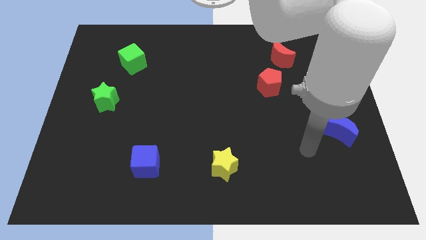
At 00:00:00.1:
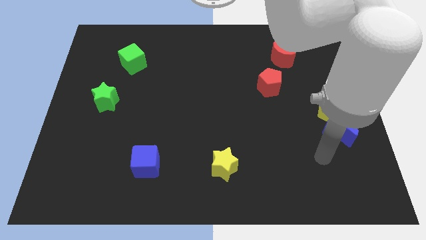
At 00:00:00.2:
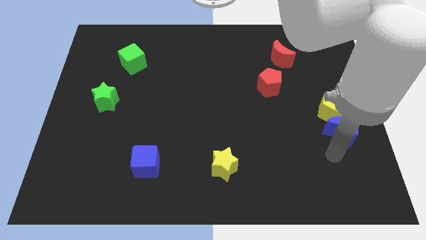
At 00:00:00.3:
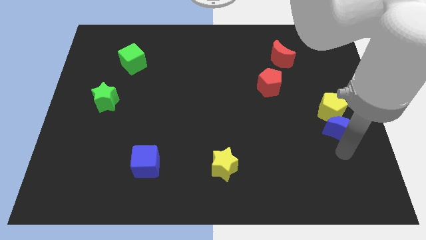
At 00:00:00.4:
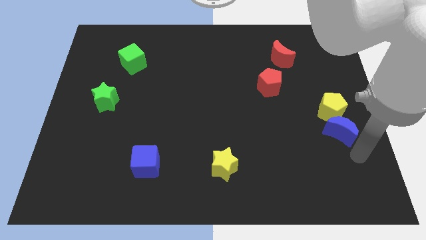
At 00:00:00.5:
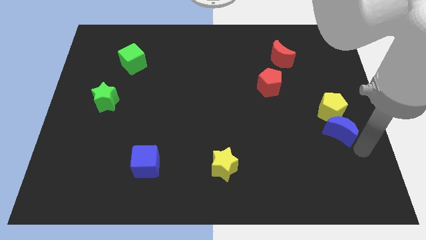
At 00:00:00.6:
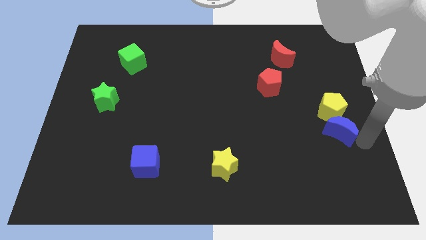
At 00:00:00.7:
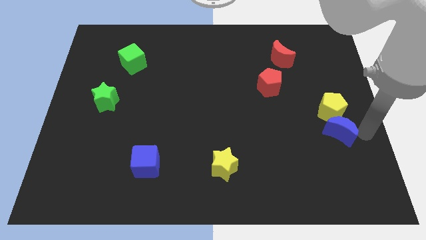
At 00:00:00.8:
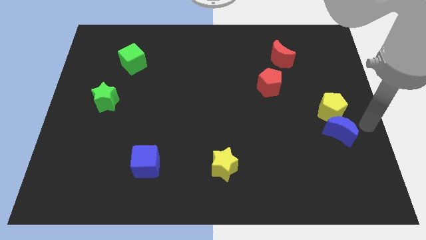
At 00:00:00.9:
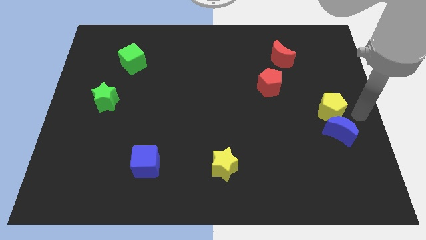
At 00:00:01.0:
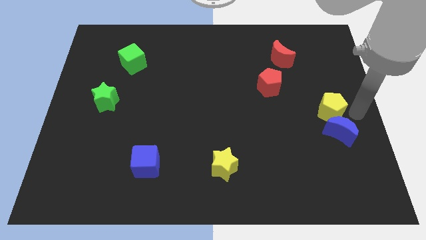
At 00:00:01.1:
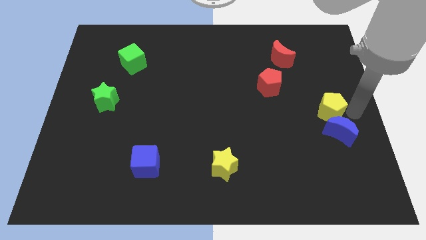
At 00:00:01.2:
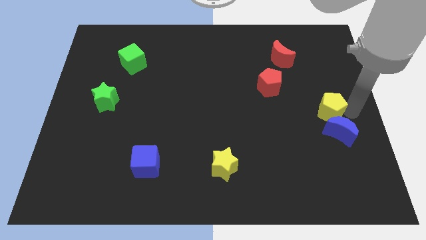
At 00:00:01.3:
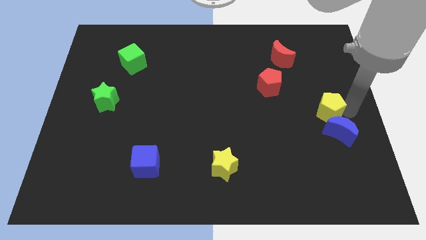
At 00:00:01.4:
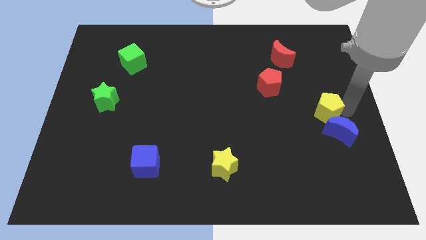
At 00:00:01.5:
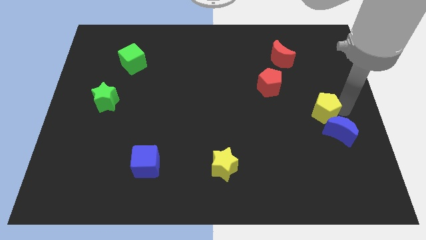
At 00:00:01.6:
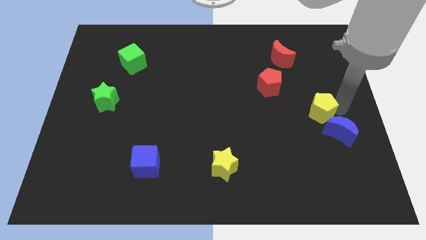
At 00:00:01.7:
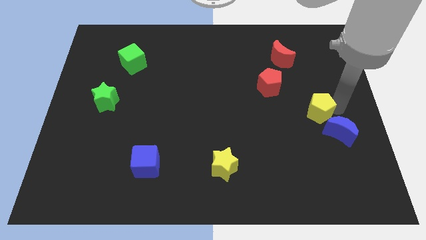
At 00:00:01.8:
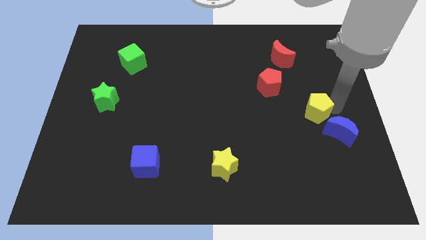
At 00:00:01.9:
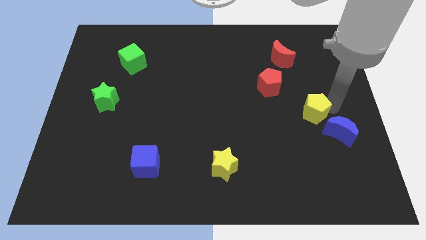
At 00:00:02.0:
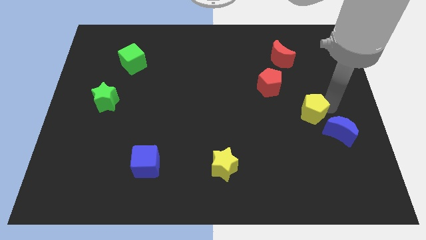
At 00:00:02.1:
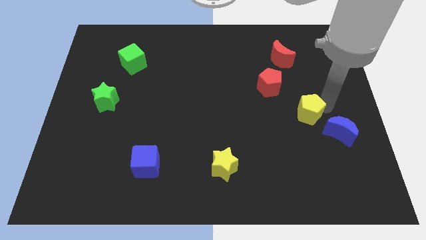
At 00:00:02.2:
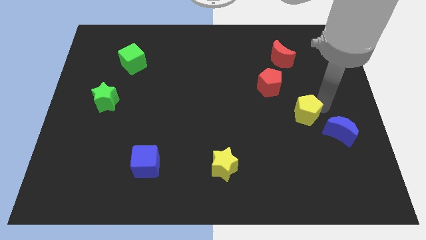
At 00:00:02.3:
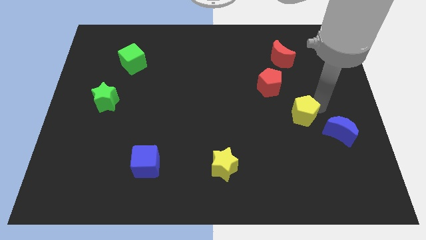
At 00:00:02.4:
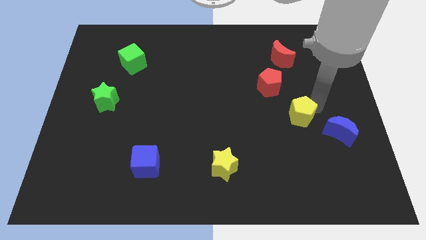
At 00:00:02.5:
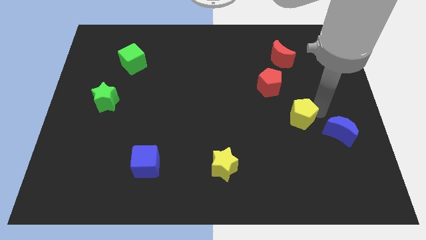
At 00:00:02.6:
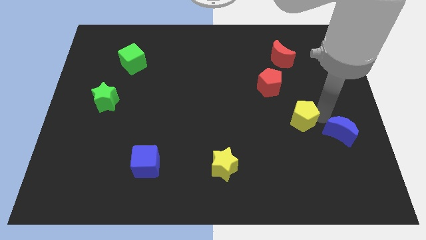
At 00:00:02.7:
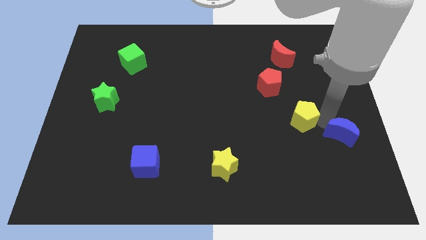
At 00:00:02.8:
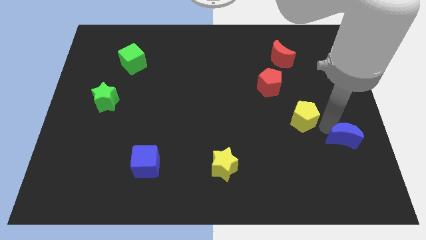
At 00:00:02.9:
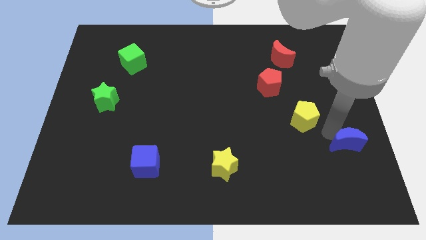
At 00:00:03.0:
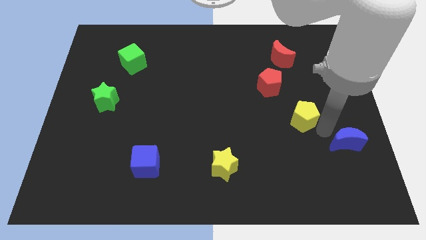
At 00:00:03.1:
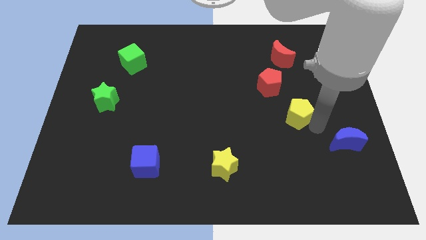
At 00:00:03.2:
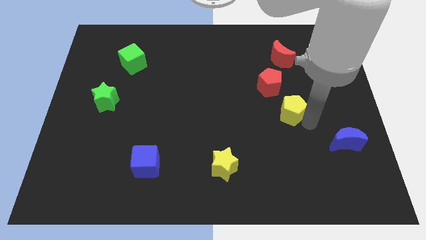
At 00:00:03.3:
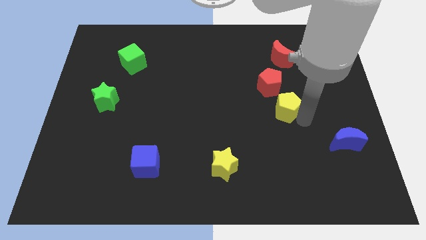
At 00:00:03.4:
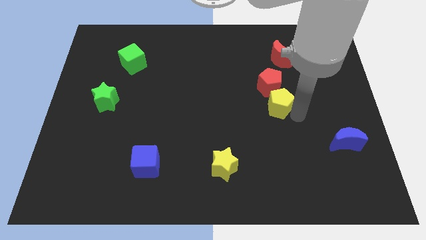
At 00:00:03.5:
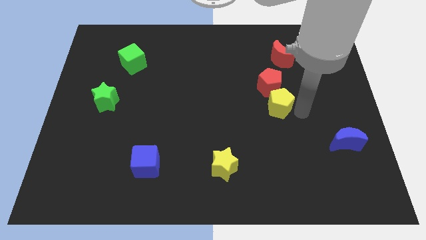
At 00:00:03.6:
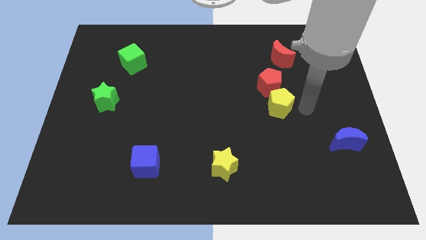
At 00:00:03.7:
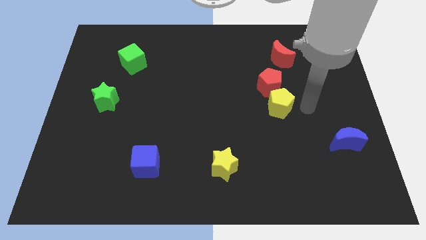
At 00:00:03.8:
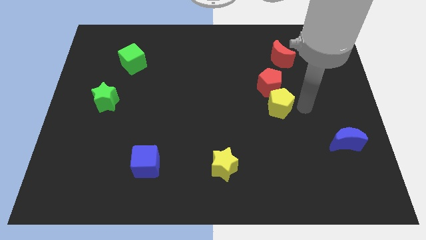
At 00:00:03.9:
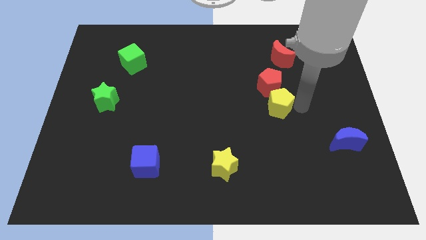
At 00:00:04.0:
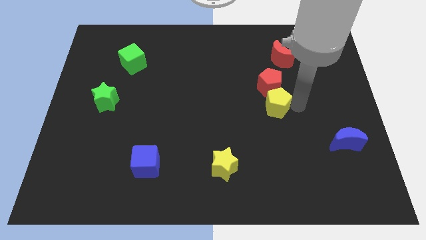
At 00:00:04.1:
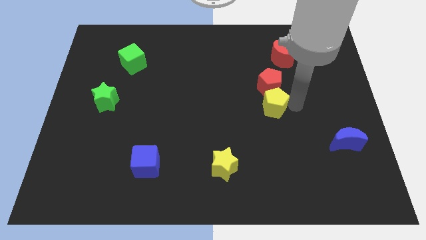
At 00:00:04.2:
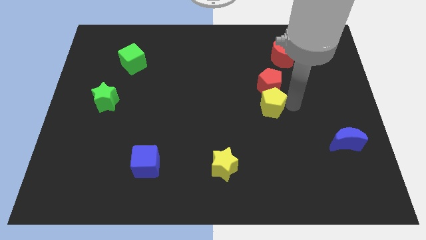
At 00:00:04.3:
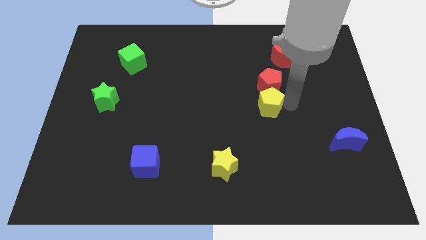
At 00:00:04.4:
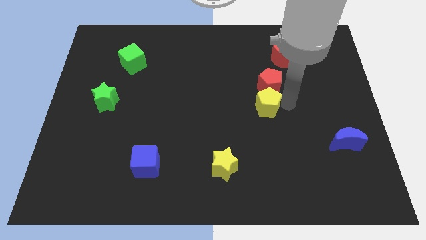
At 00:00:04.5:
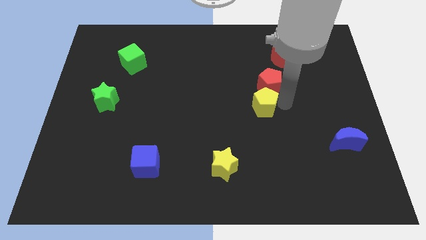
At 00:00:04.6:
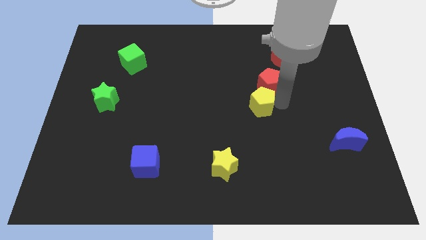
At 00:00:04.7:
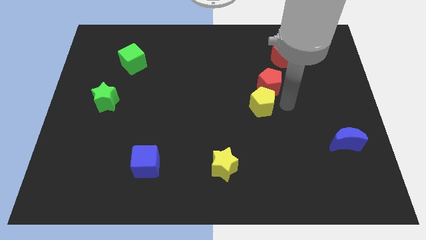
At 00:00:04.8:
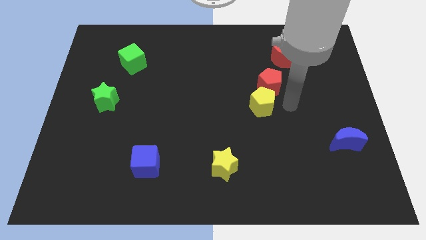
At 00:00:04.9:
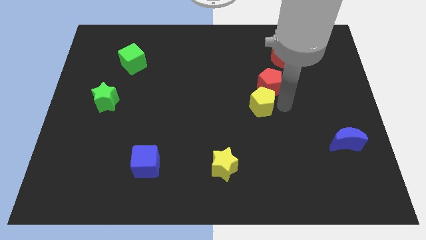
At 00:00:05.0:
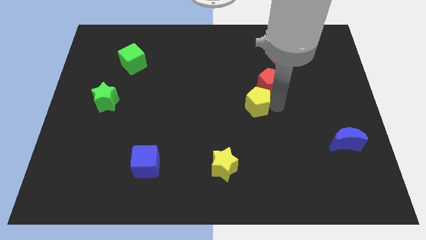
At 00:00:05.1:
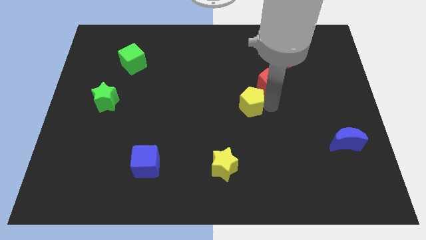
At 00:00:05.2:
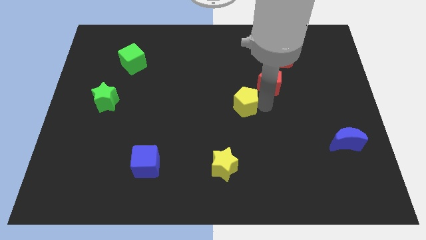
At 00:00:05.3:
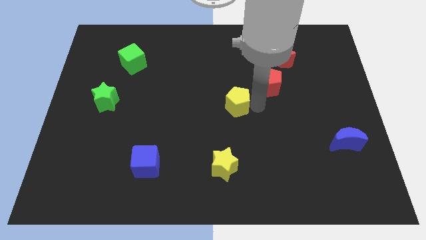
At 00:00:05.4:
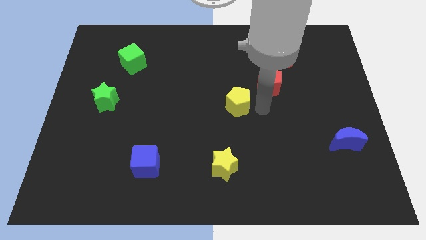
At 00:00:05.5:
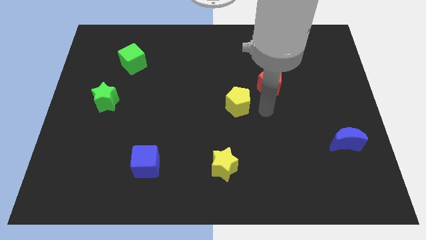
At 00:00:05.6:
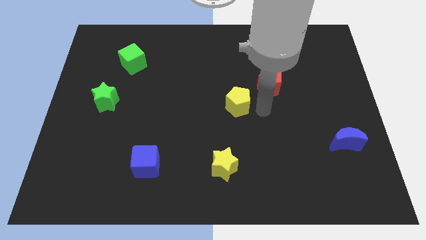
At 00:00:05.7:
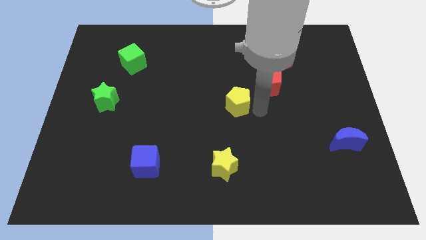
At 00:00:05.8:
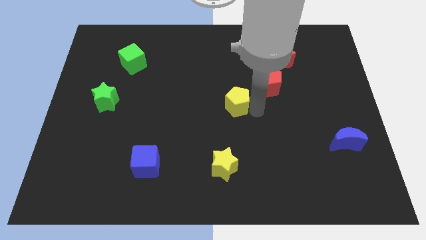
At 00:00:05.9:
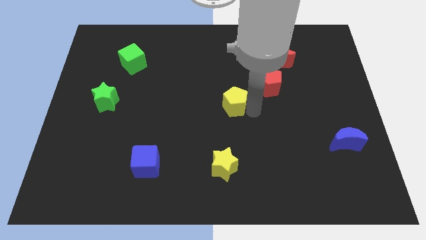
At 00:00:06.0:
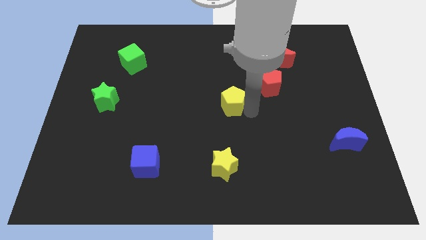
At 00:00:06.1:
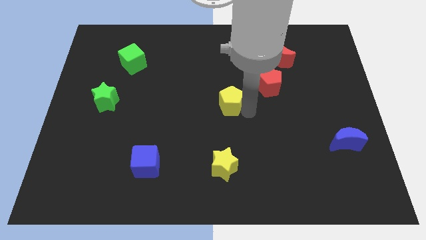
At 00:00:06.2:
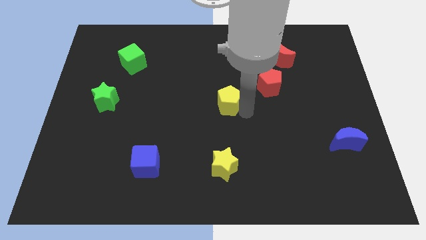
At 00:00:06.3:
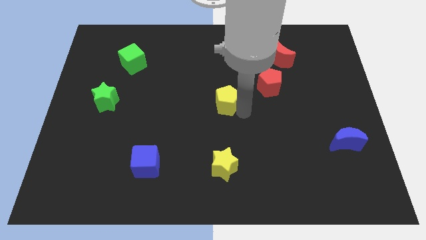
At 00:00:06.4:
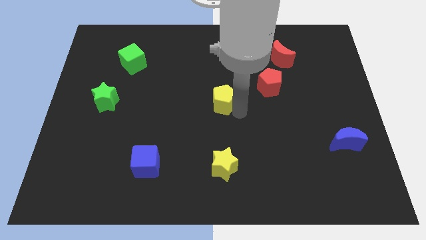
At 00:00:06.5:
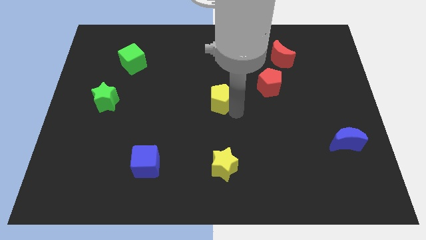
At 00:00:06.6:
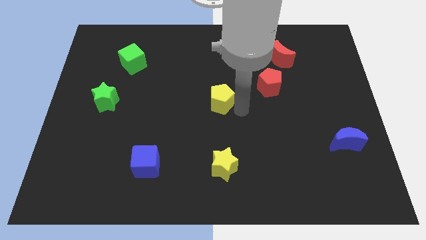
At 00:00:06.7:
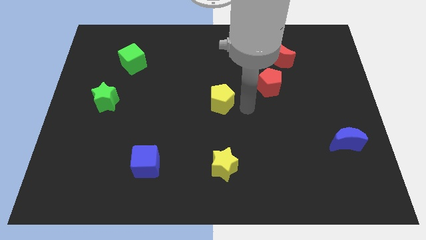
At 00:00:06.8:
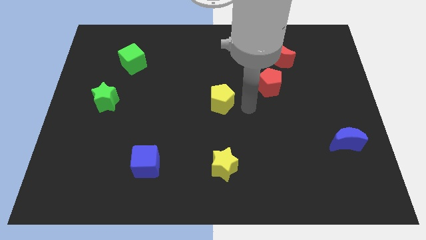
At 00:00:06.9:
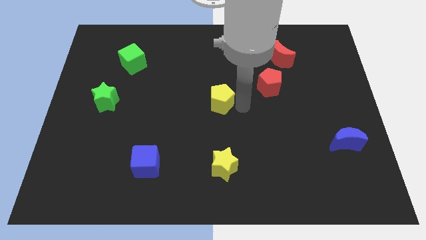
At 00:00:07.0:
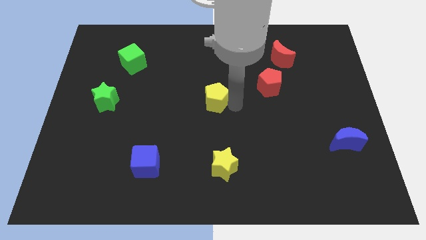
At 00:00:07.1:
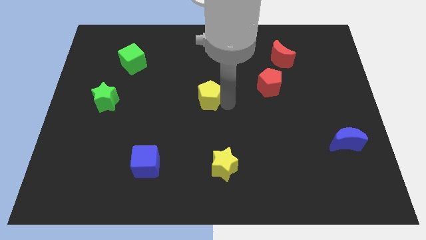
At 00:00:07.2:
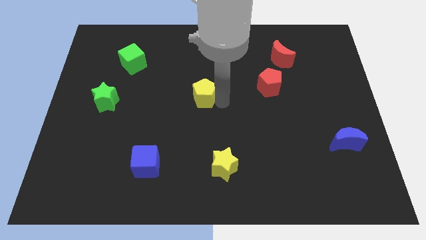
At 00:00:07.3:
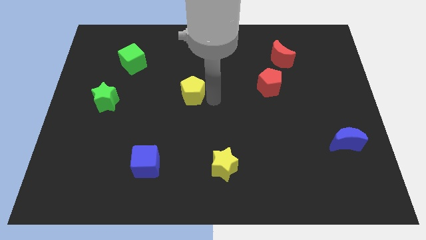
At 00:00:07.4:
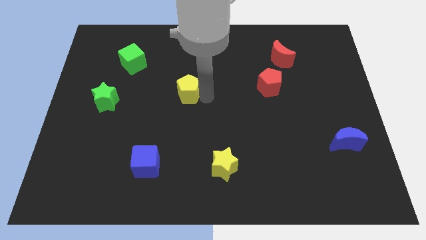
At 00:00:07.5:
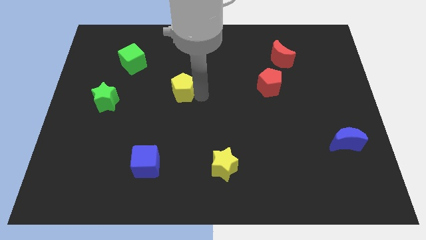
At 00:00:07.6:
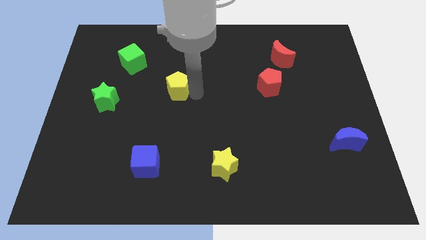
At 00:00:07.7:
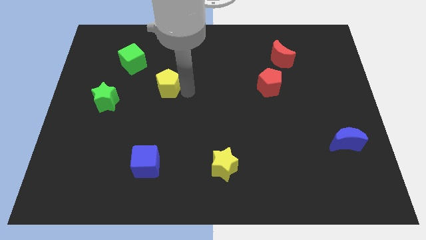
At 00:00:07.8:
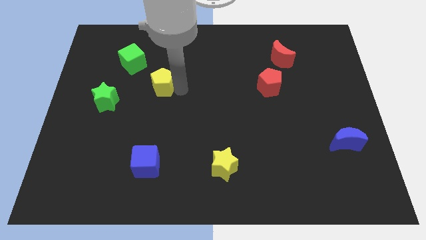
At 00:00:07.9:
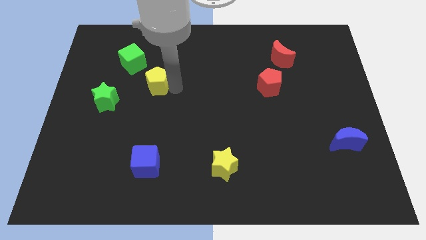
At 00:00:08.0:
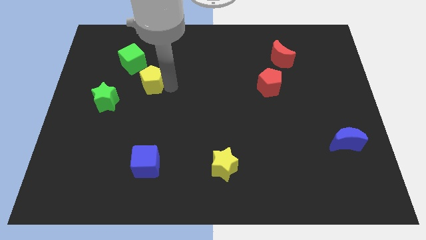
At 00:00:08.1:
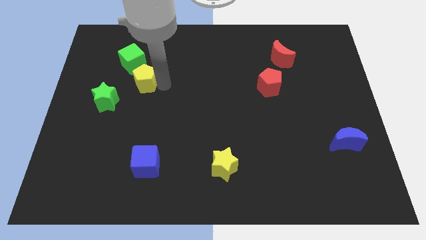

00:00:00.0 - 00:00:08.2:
slide the yellow pentagon to the top right side of the green star
